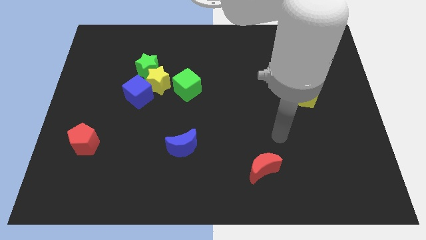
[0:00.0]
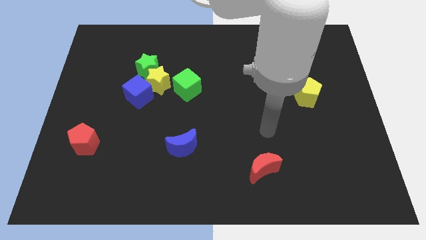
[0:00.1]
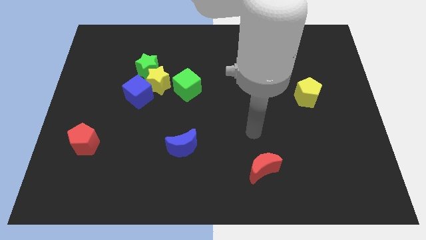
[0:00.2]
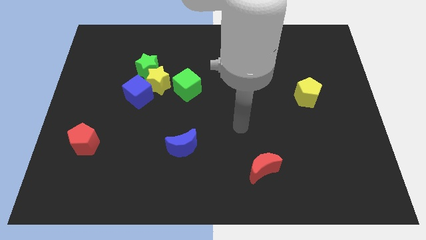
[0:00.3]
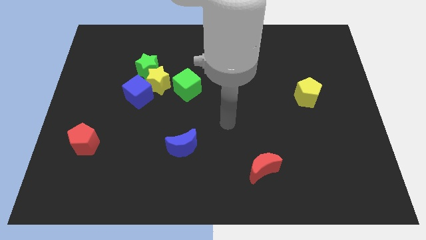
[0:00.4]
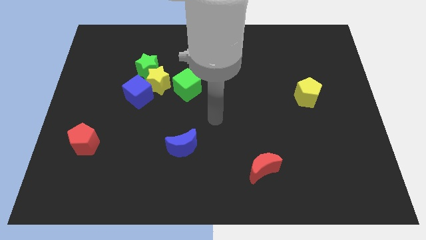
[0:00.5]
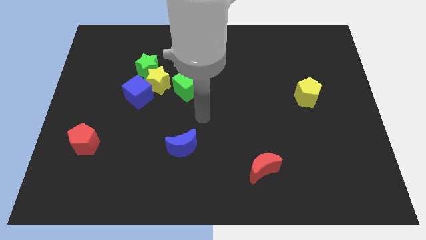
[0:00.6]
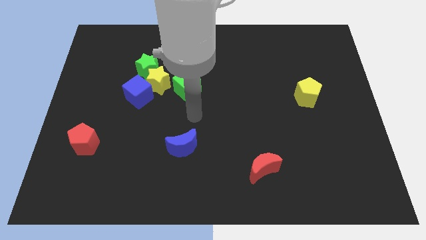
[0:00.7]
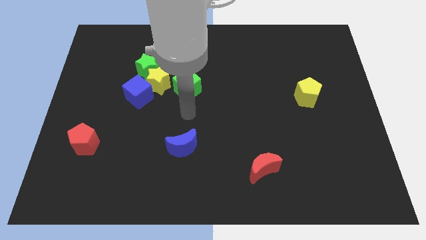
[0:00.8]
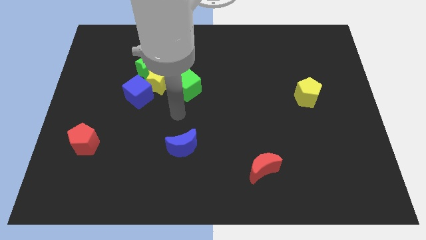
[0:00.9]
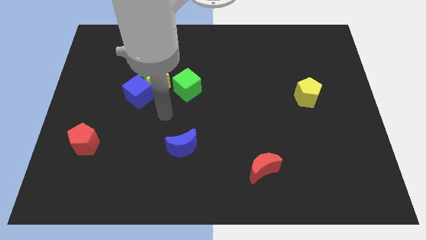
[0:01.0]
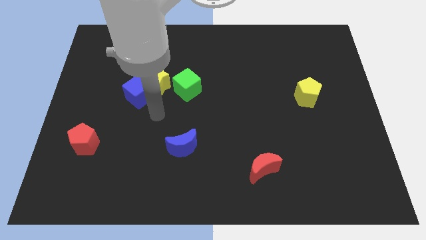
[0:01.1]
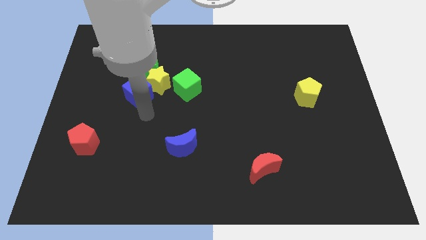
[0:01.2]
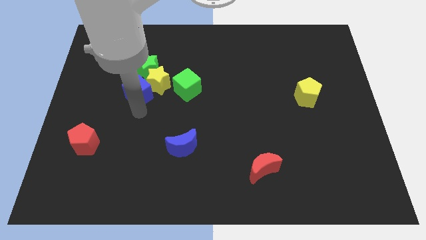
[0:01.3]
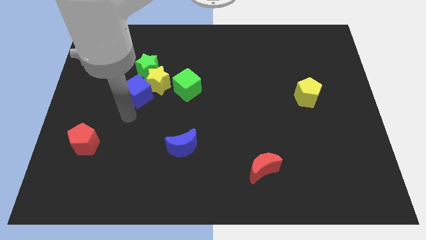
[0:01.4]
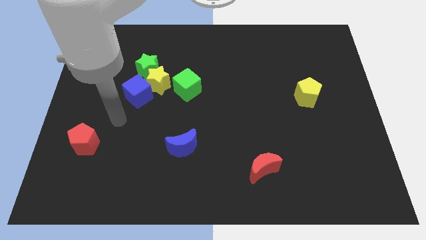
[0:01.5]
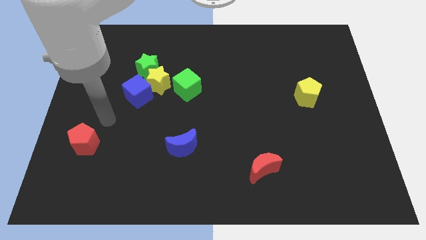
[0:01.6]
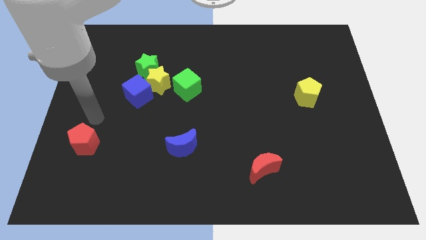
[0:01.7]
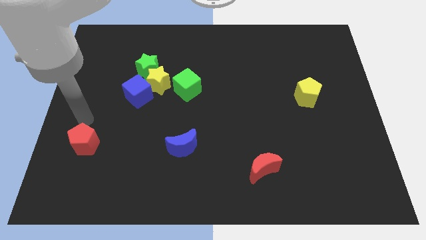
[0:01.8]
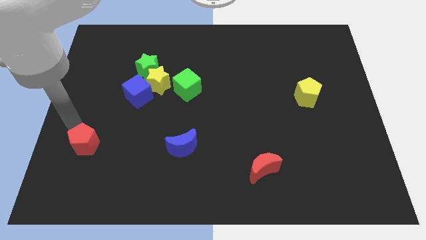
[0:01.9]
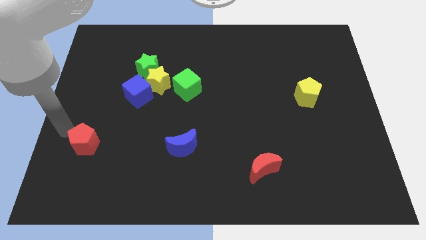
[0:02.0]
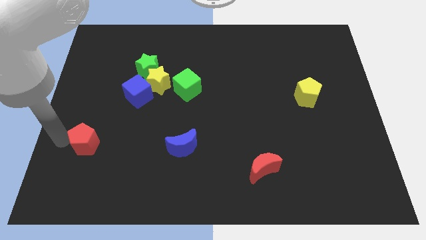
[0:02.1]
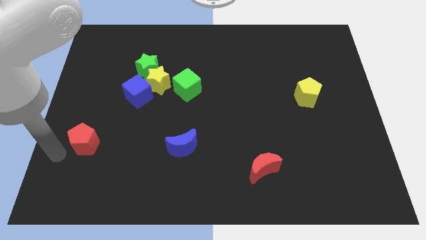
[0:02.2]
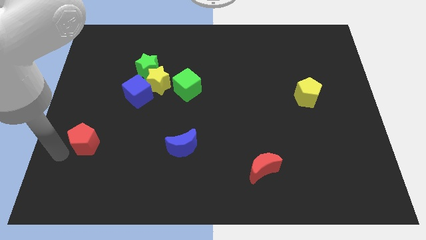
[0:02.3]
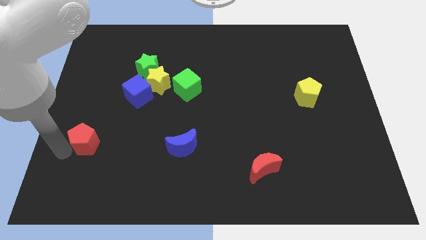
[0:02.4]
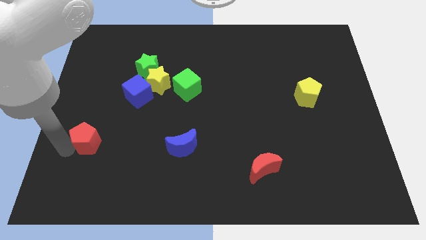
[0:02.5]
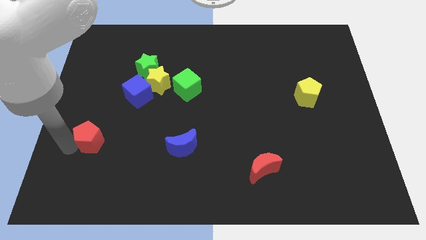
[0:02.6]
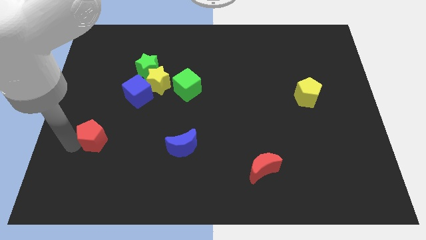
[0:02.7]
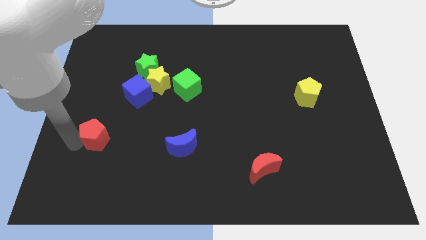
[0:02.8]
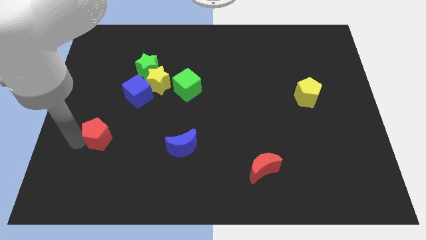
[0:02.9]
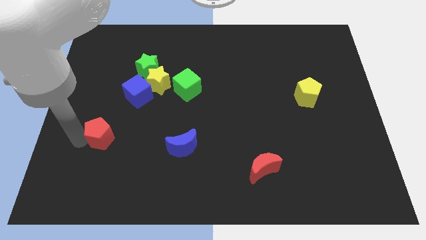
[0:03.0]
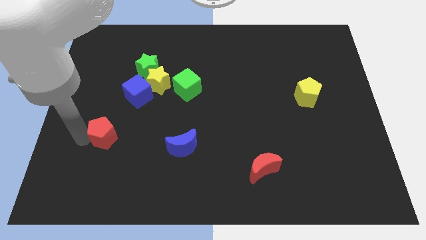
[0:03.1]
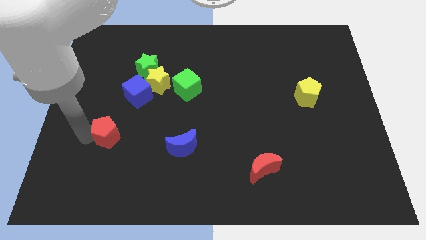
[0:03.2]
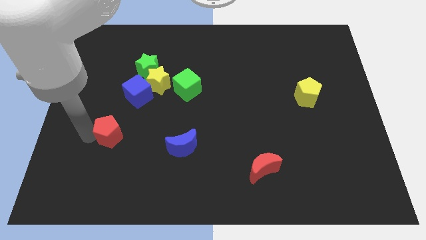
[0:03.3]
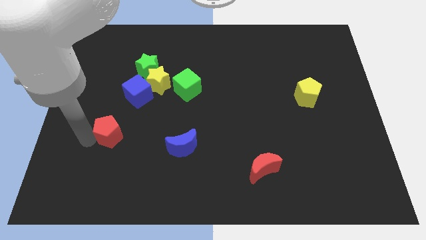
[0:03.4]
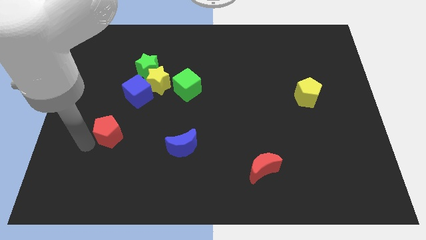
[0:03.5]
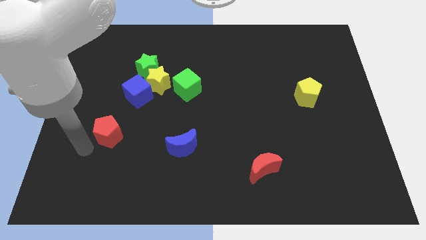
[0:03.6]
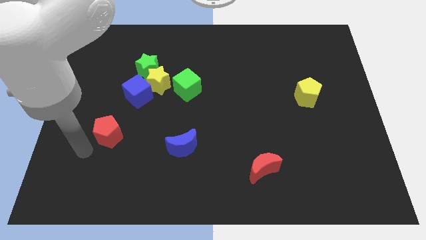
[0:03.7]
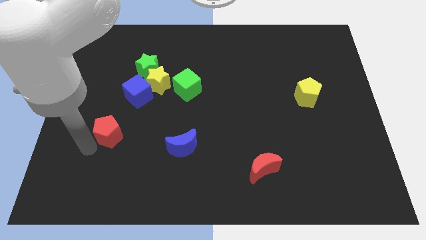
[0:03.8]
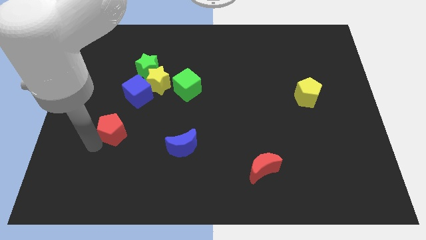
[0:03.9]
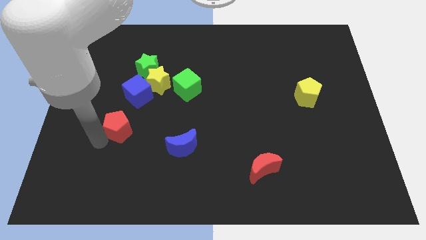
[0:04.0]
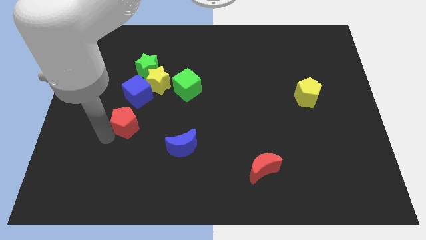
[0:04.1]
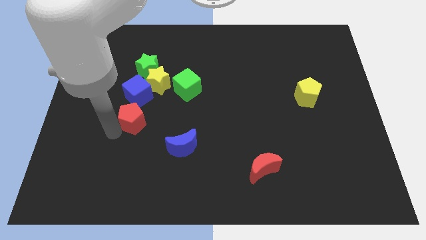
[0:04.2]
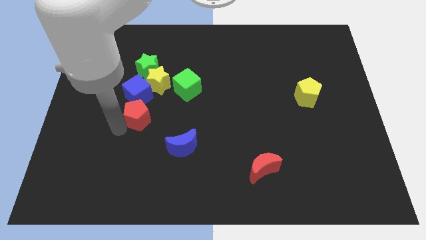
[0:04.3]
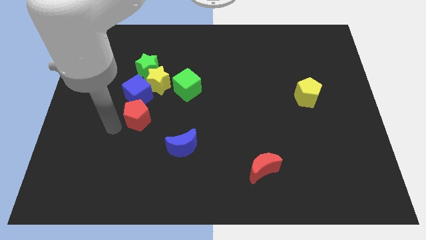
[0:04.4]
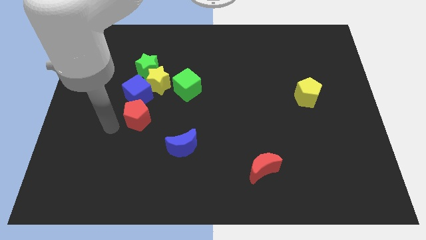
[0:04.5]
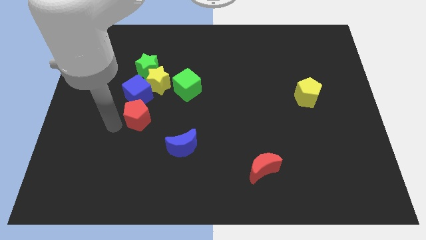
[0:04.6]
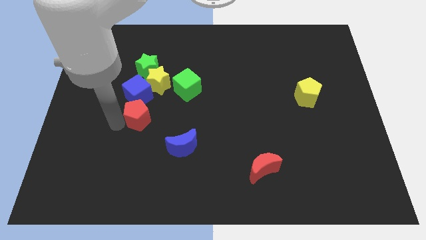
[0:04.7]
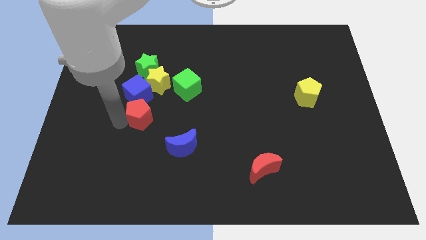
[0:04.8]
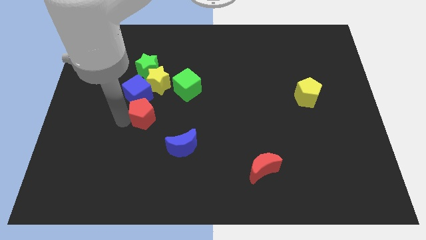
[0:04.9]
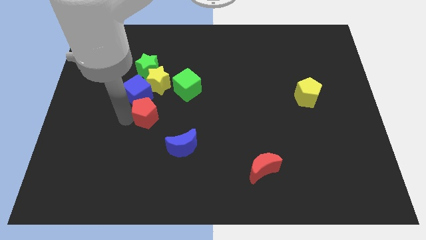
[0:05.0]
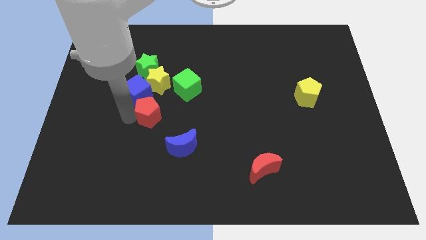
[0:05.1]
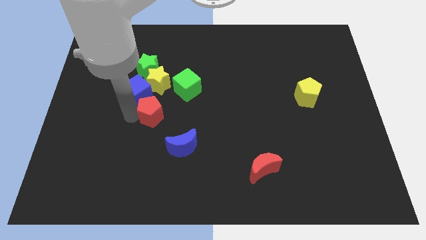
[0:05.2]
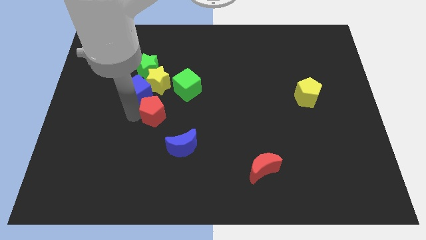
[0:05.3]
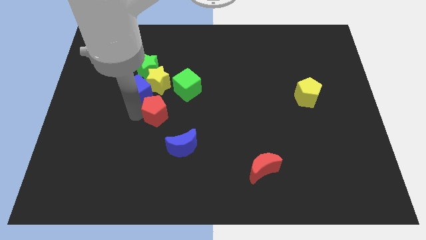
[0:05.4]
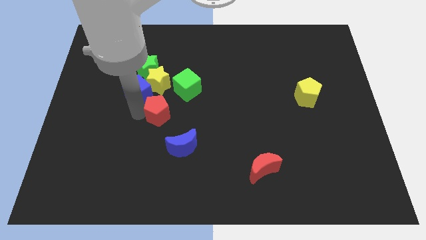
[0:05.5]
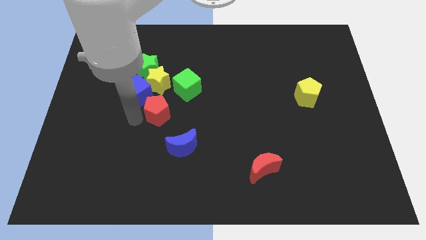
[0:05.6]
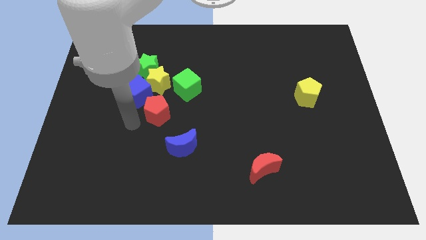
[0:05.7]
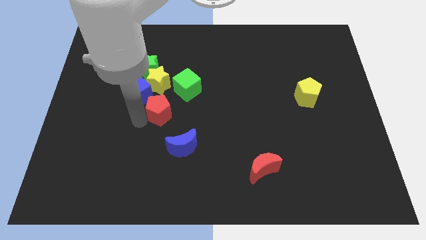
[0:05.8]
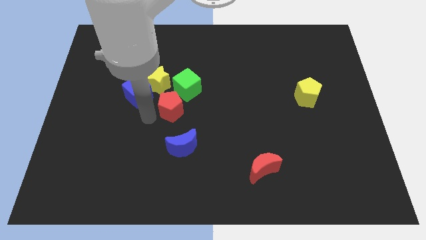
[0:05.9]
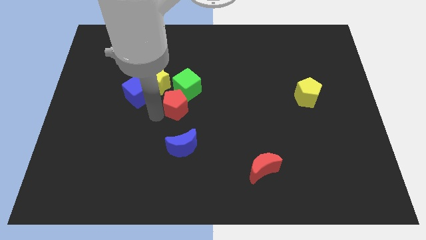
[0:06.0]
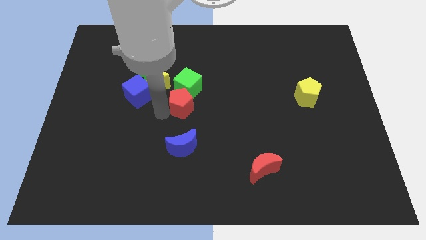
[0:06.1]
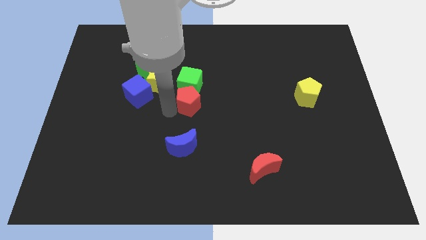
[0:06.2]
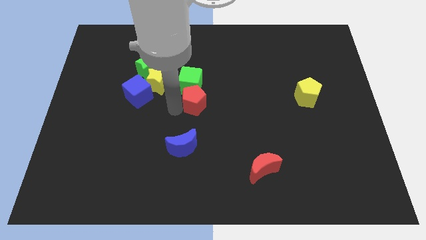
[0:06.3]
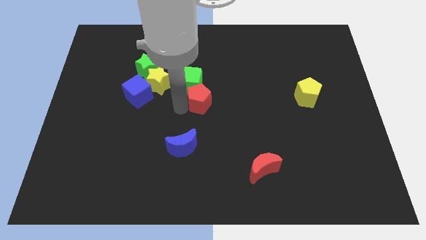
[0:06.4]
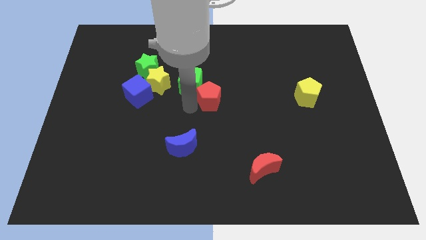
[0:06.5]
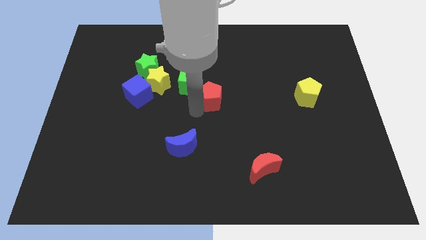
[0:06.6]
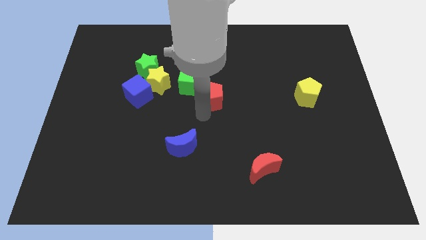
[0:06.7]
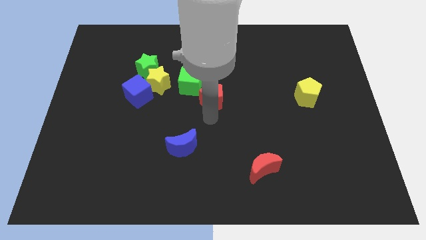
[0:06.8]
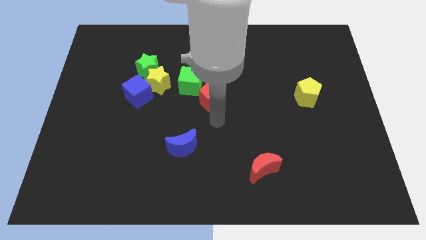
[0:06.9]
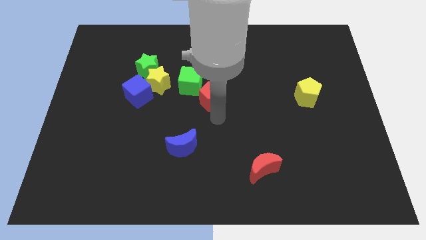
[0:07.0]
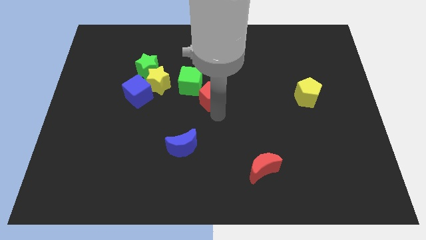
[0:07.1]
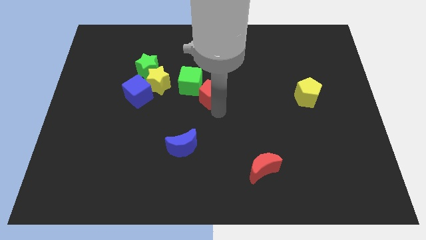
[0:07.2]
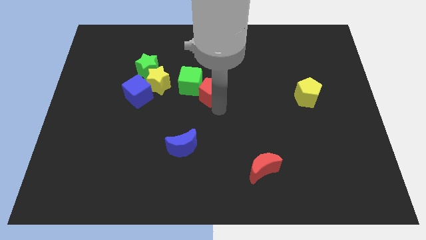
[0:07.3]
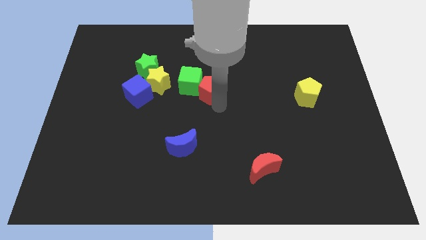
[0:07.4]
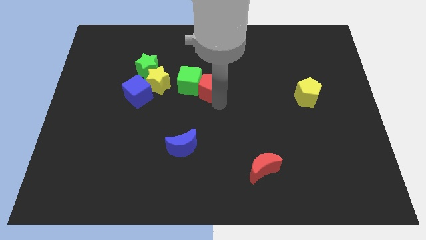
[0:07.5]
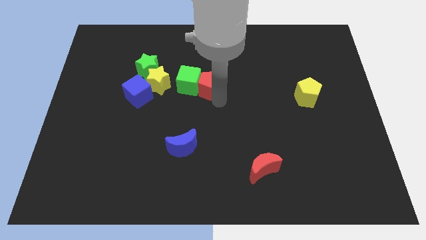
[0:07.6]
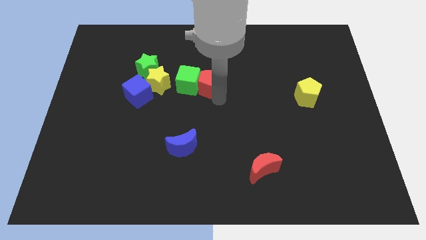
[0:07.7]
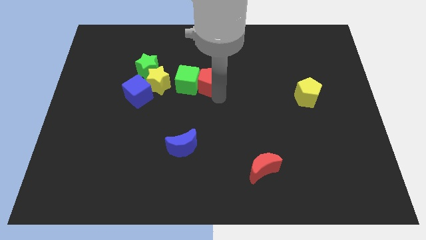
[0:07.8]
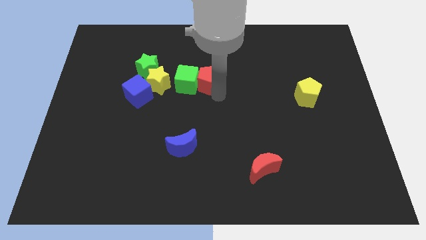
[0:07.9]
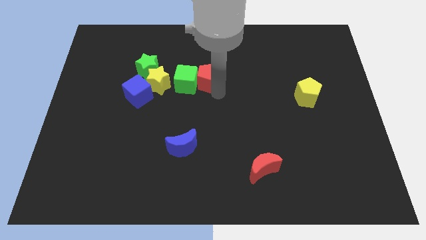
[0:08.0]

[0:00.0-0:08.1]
slide the red pentagon to the right of the green star
